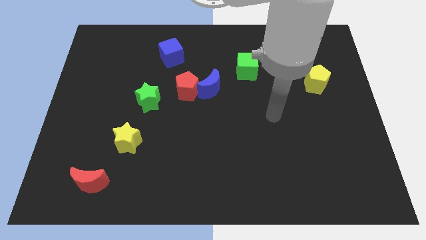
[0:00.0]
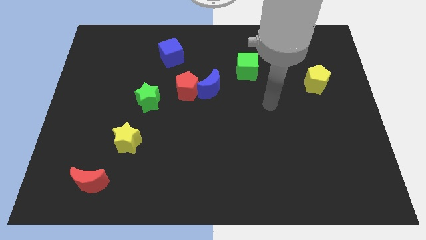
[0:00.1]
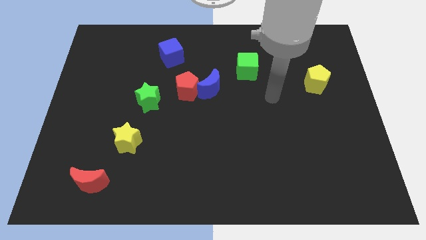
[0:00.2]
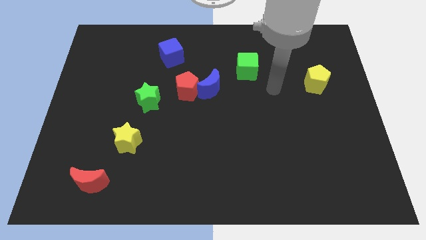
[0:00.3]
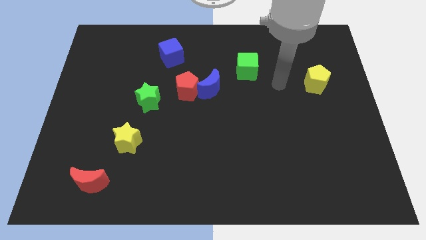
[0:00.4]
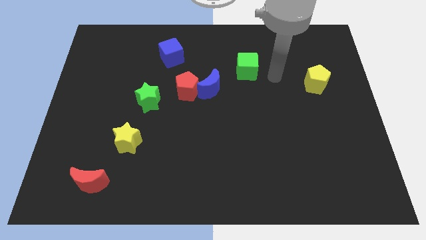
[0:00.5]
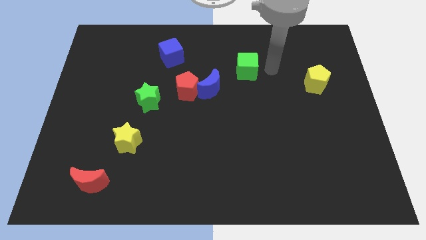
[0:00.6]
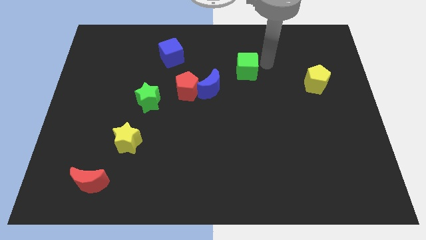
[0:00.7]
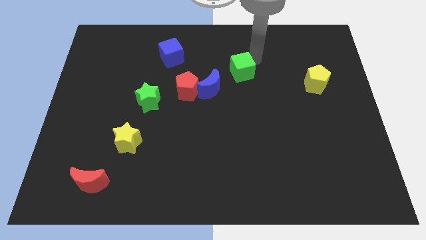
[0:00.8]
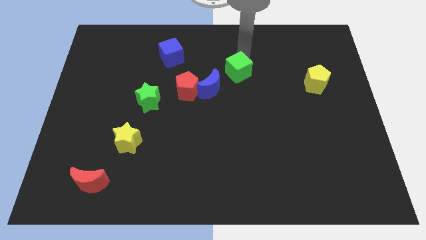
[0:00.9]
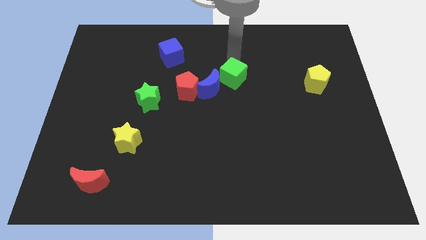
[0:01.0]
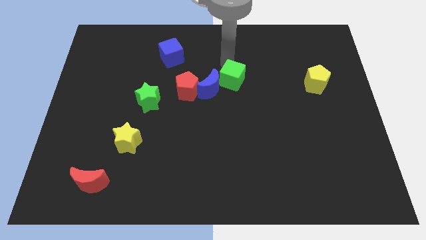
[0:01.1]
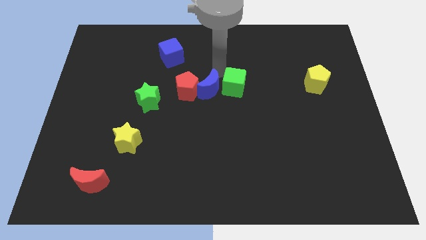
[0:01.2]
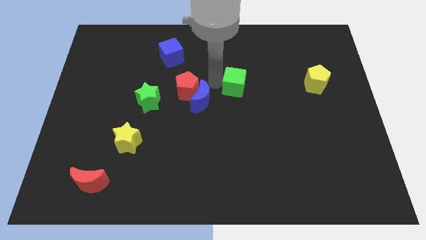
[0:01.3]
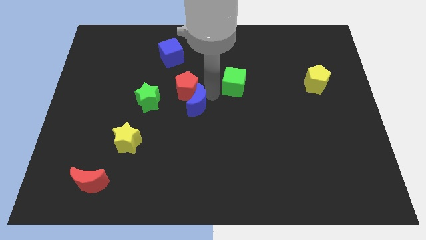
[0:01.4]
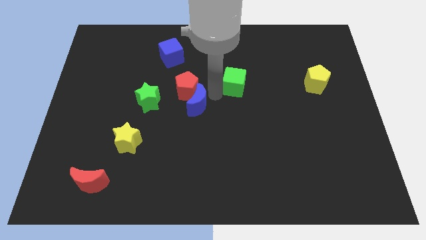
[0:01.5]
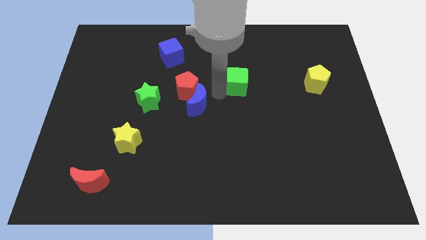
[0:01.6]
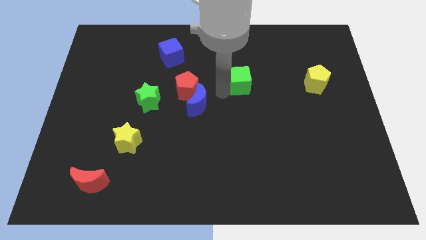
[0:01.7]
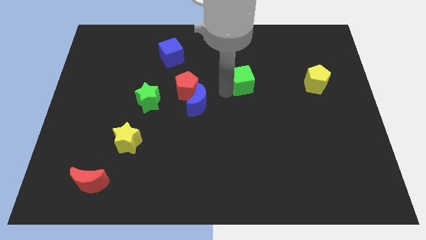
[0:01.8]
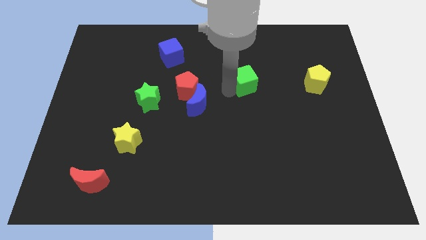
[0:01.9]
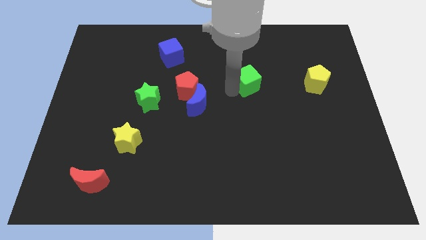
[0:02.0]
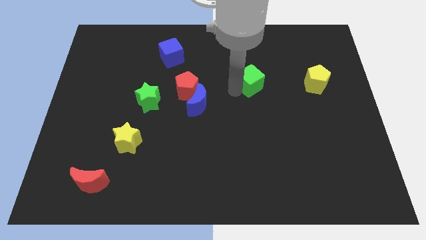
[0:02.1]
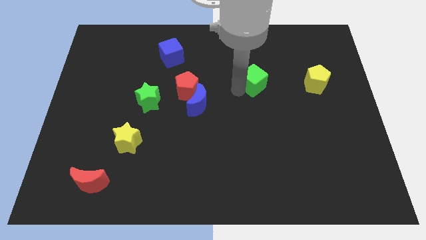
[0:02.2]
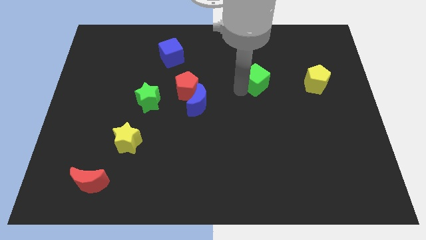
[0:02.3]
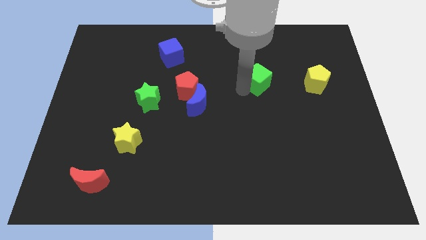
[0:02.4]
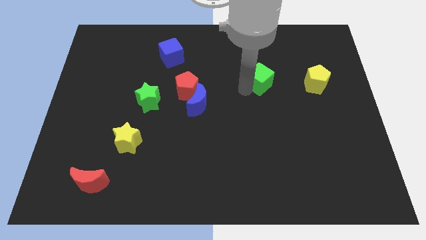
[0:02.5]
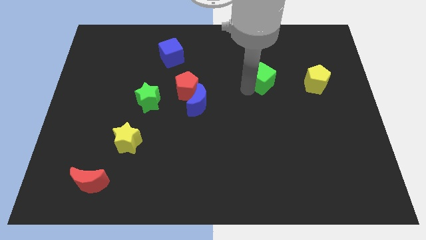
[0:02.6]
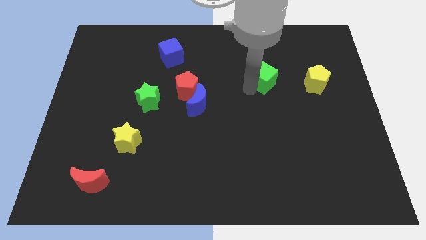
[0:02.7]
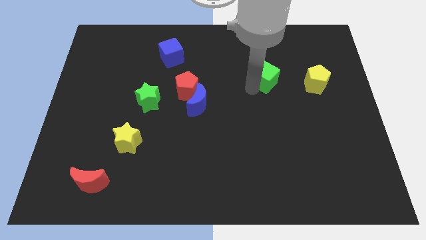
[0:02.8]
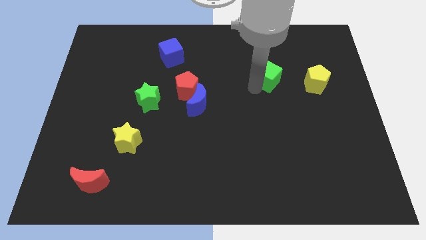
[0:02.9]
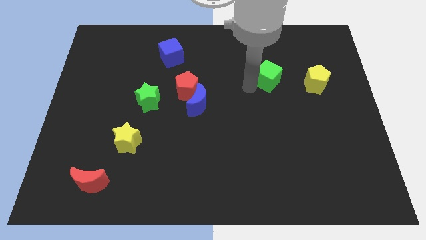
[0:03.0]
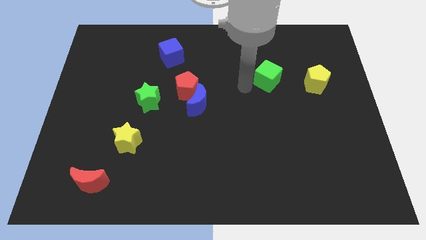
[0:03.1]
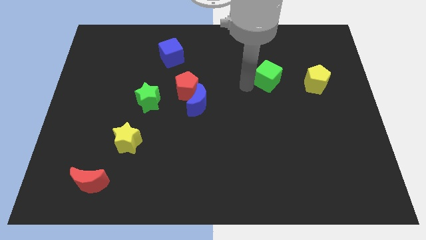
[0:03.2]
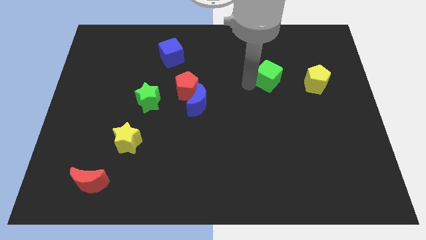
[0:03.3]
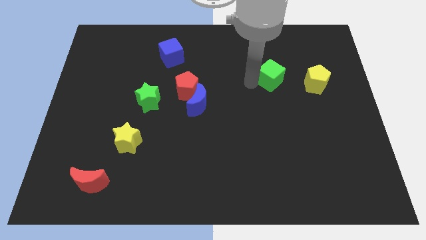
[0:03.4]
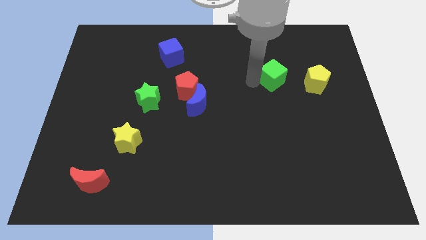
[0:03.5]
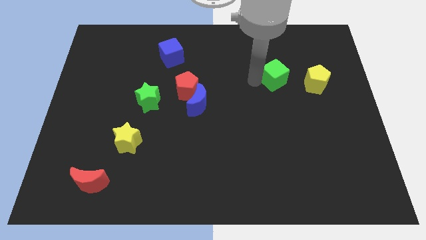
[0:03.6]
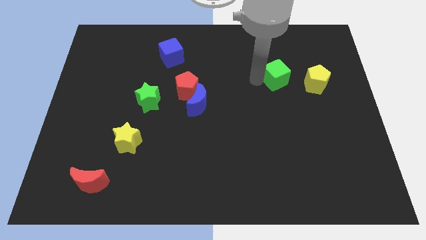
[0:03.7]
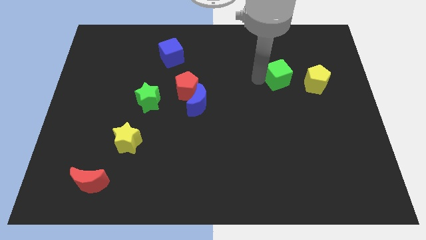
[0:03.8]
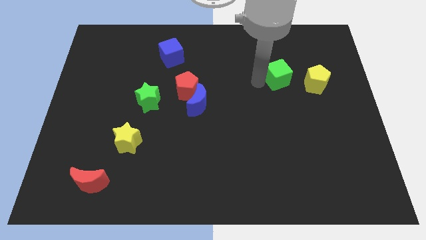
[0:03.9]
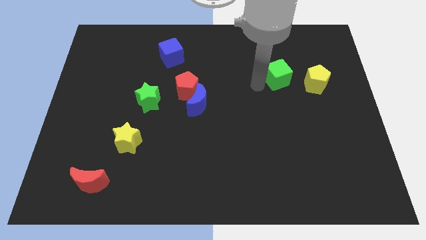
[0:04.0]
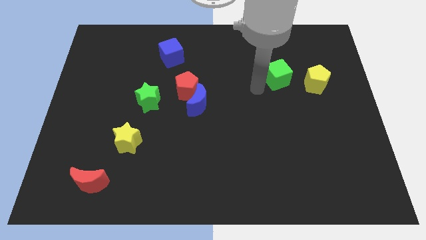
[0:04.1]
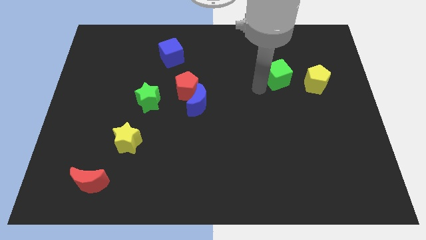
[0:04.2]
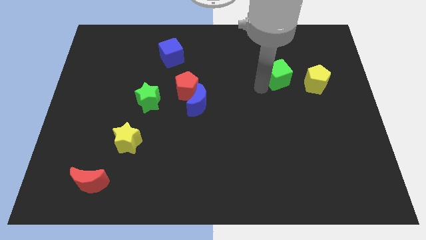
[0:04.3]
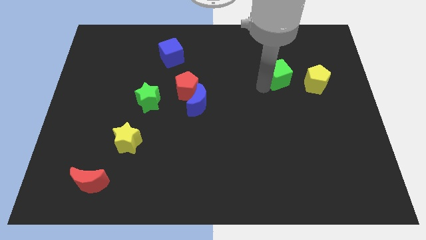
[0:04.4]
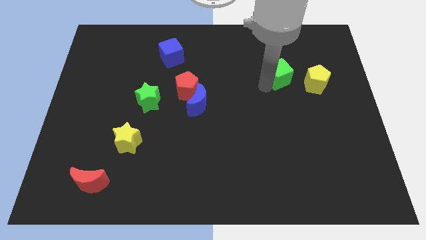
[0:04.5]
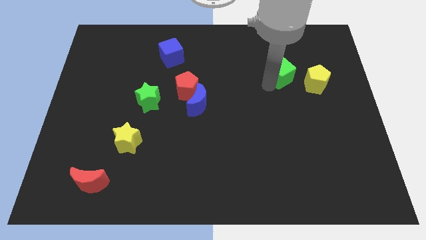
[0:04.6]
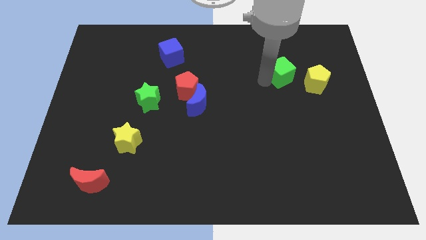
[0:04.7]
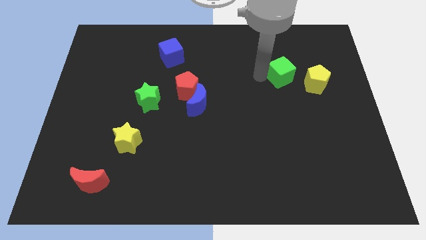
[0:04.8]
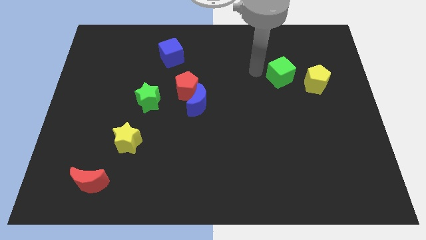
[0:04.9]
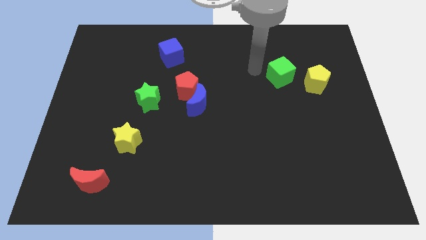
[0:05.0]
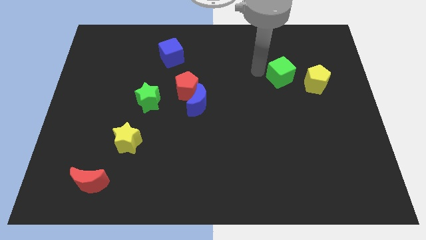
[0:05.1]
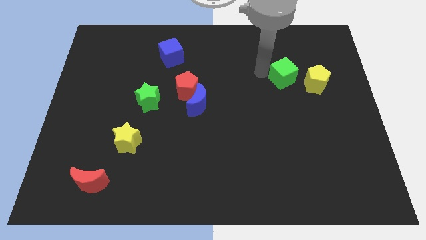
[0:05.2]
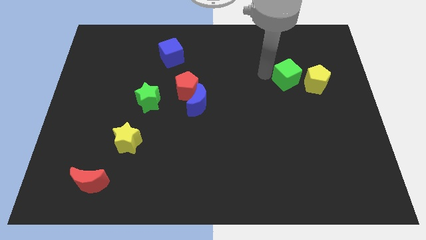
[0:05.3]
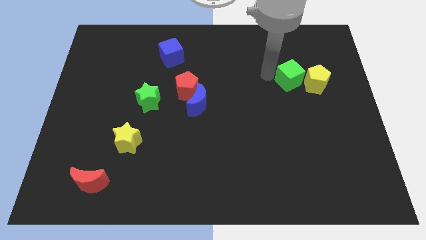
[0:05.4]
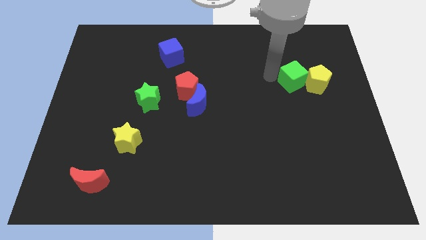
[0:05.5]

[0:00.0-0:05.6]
put the green cube next to the yellow pentagon

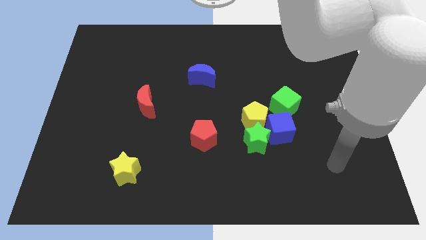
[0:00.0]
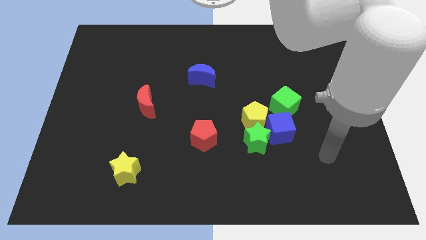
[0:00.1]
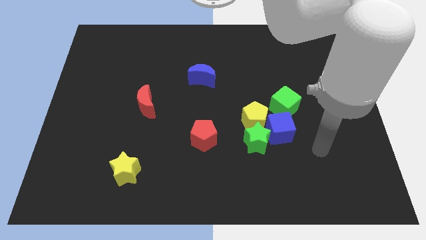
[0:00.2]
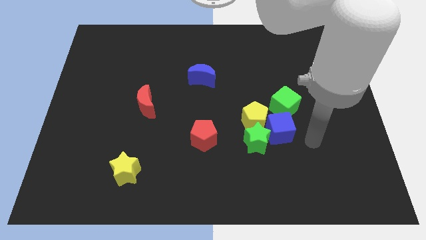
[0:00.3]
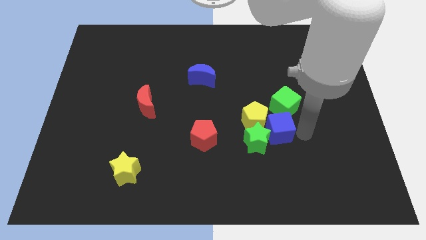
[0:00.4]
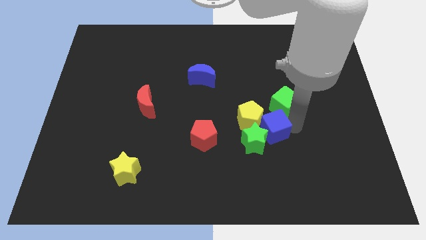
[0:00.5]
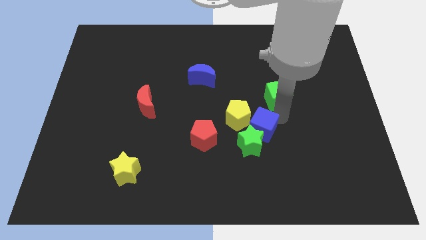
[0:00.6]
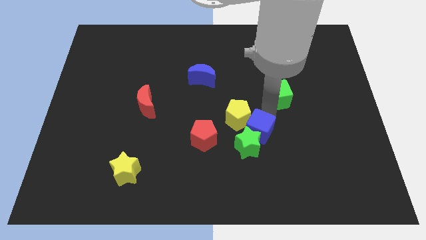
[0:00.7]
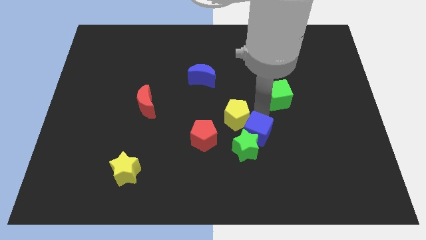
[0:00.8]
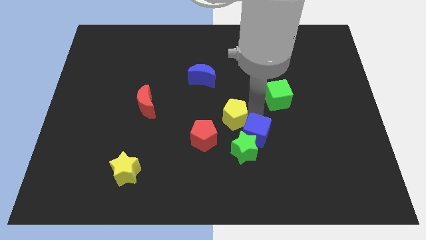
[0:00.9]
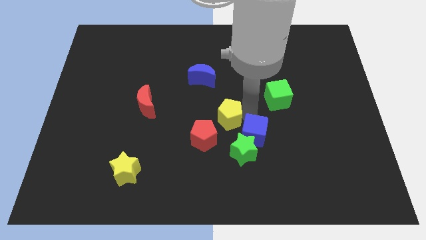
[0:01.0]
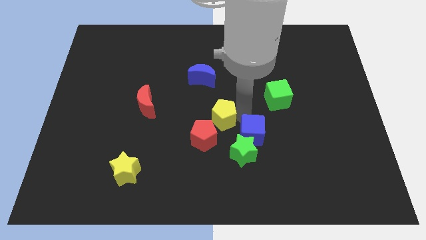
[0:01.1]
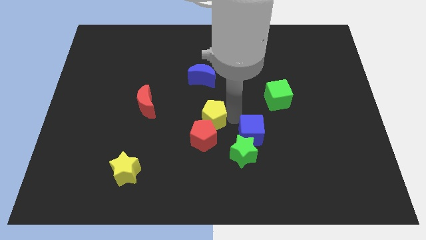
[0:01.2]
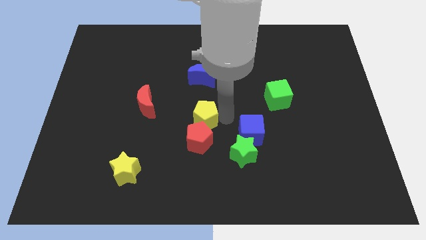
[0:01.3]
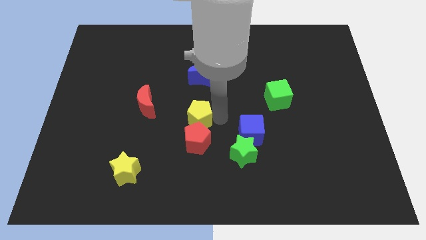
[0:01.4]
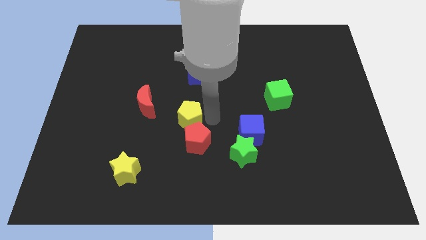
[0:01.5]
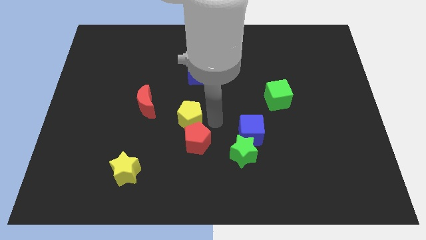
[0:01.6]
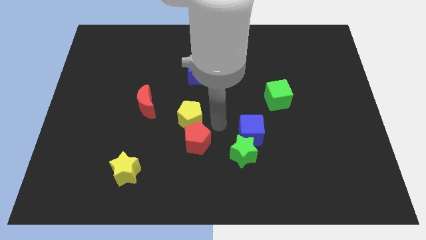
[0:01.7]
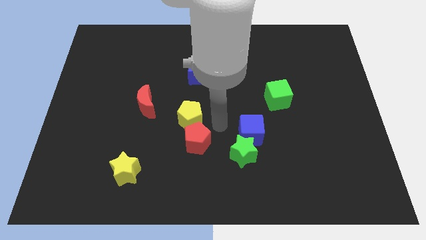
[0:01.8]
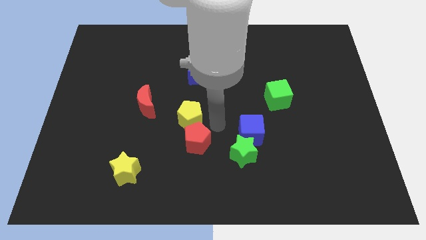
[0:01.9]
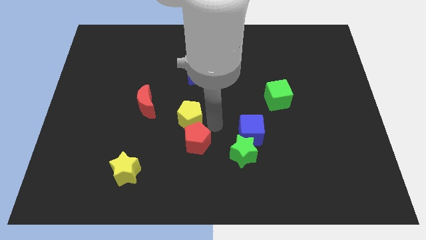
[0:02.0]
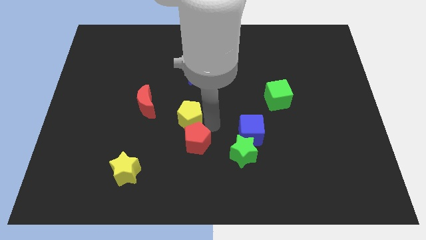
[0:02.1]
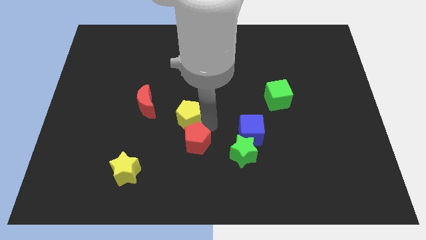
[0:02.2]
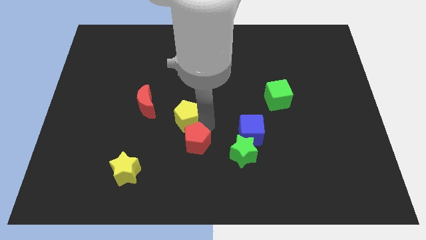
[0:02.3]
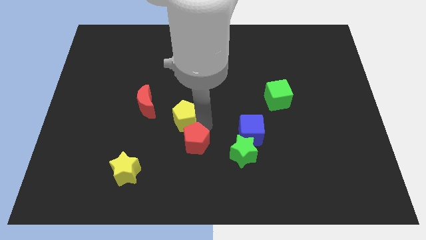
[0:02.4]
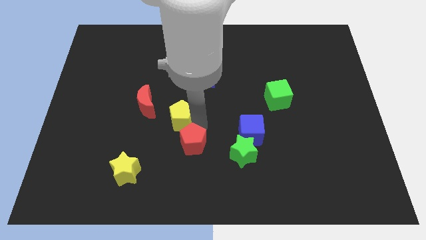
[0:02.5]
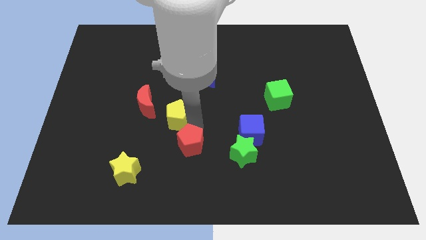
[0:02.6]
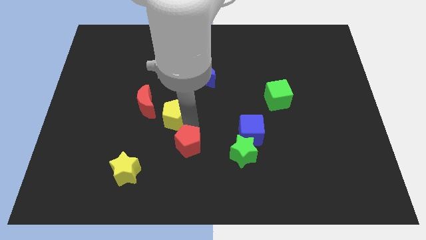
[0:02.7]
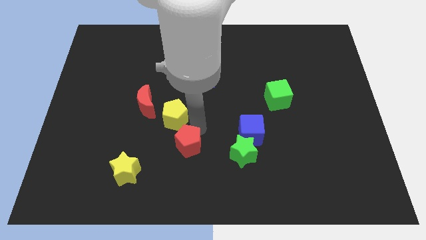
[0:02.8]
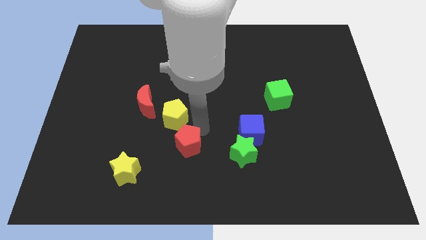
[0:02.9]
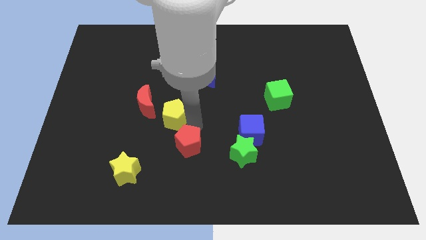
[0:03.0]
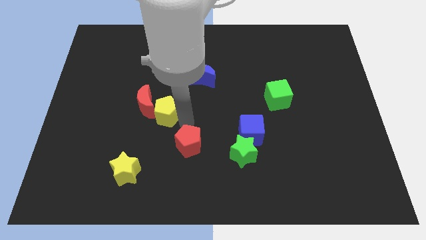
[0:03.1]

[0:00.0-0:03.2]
put the yellow pentagon to the red moon

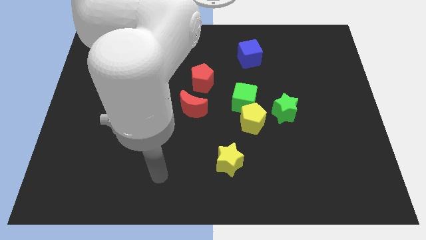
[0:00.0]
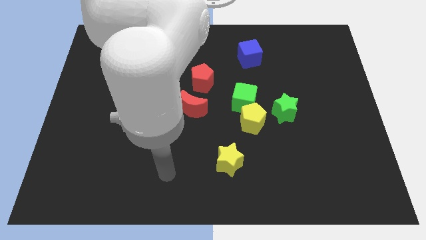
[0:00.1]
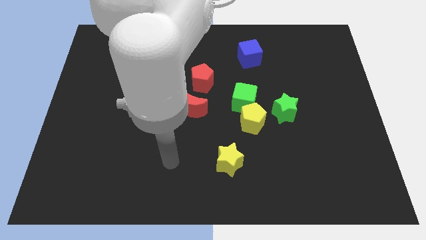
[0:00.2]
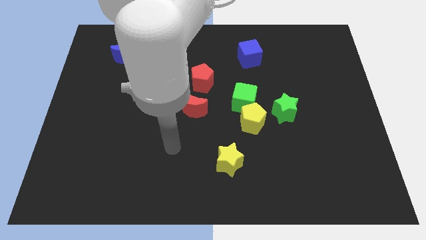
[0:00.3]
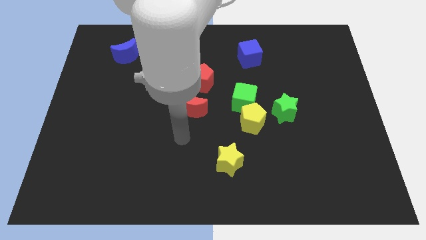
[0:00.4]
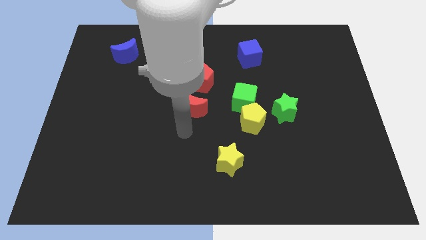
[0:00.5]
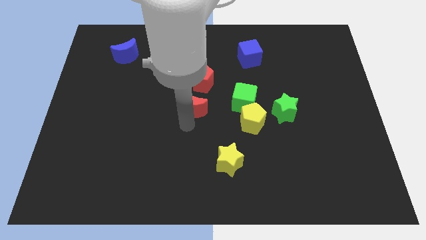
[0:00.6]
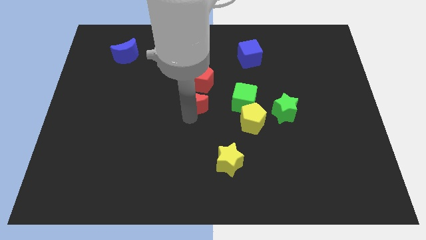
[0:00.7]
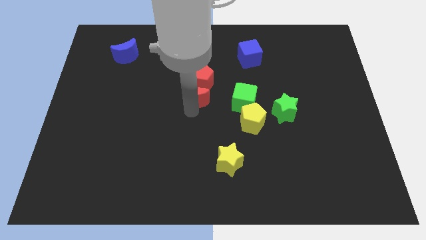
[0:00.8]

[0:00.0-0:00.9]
put the red moon towards the red pentagon
